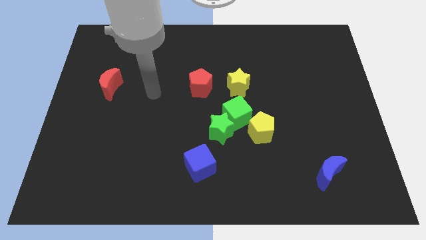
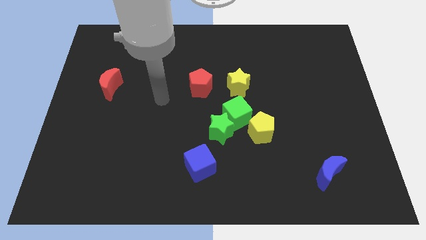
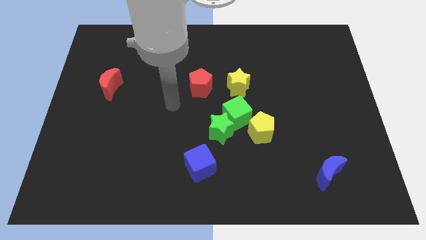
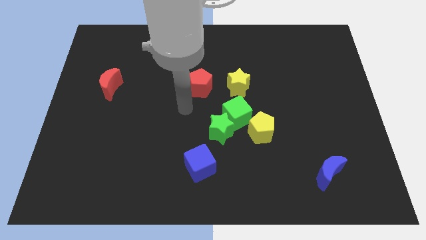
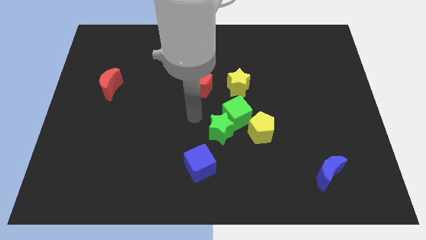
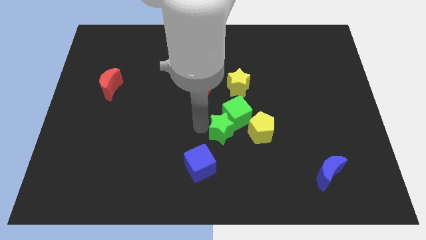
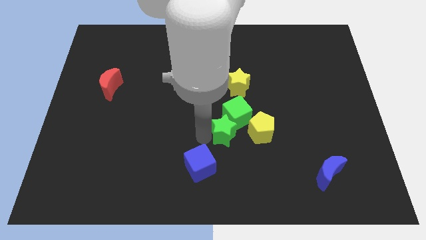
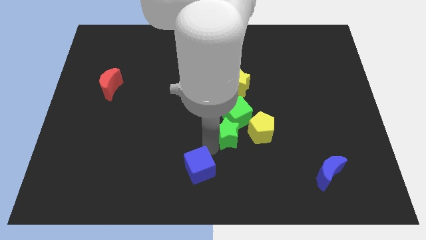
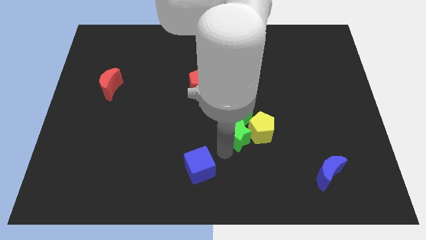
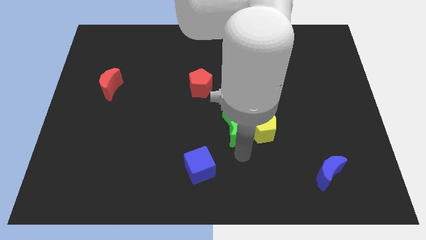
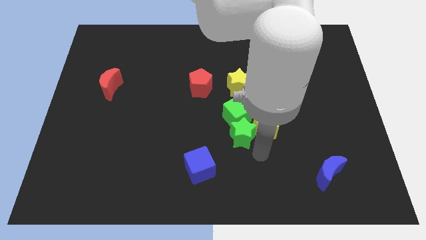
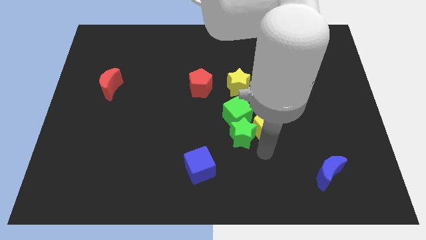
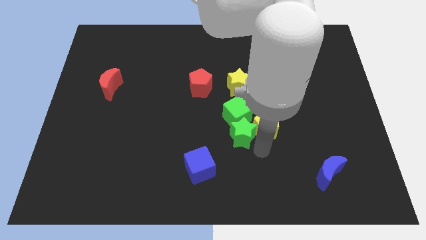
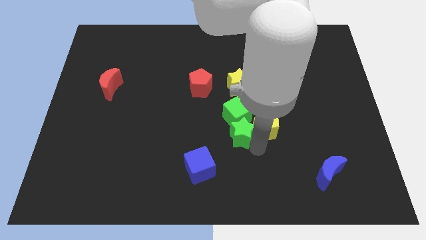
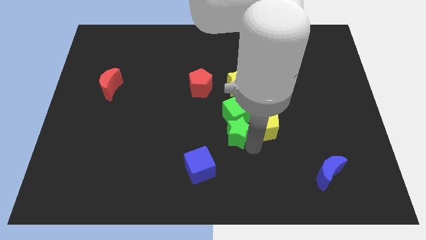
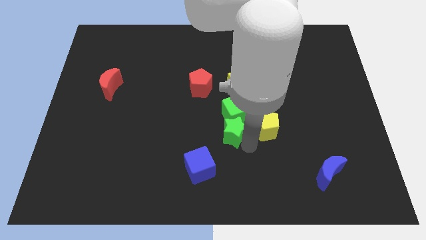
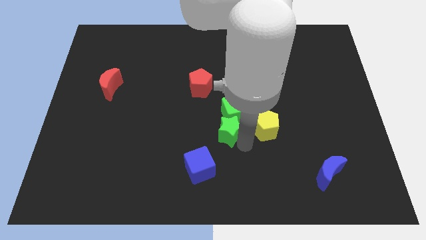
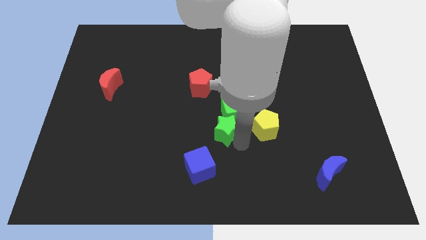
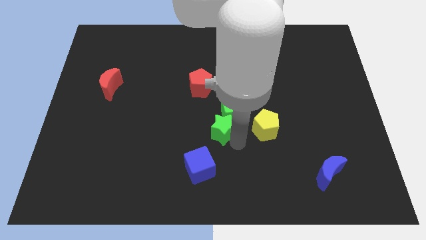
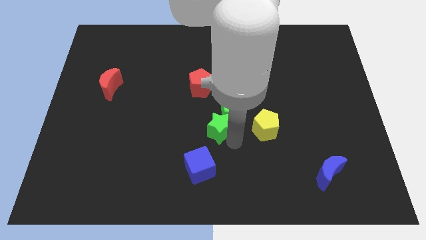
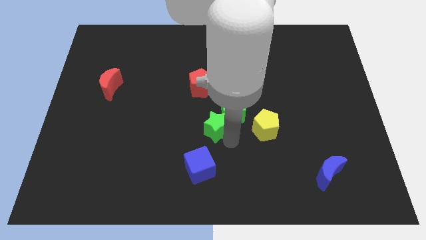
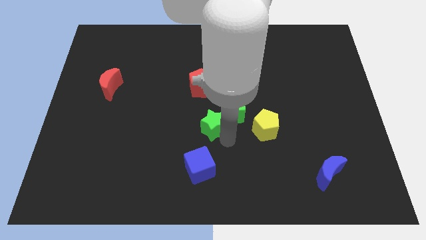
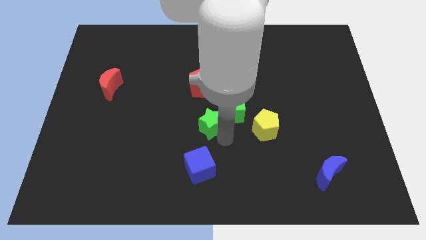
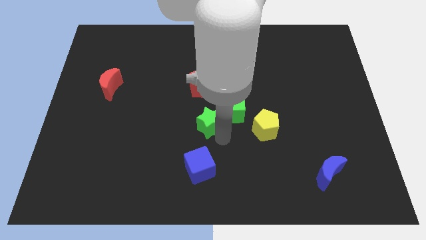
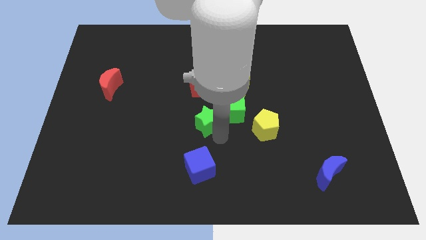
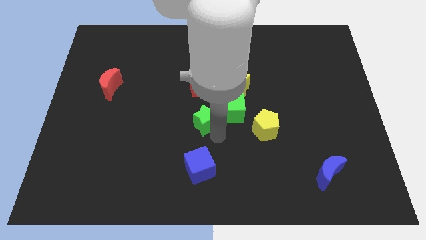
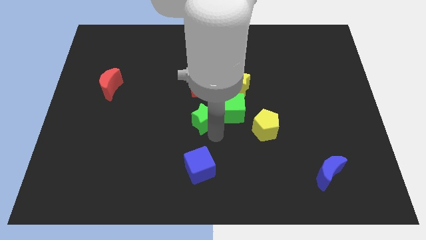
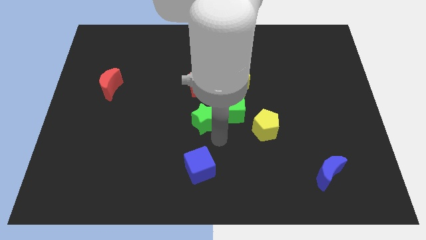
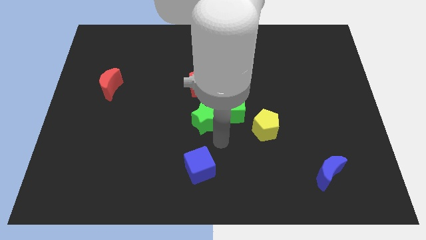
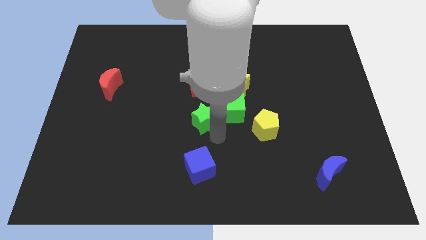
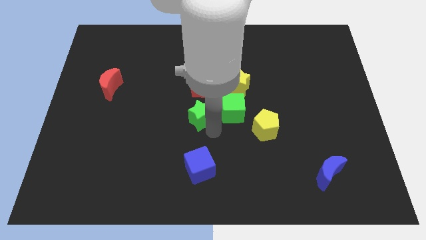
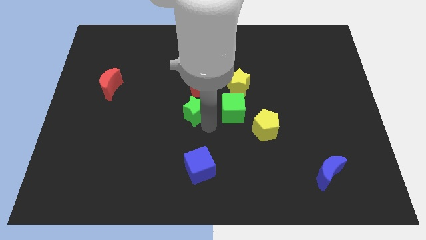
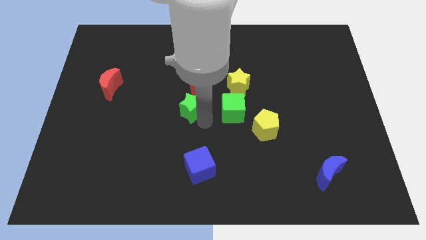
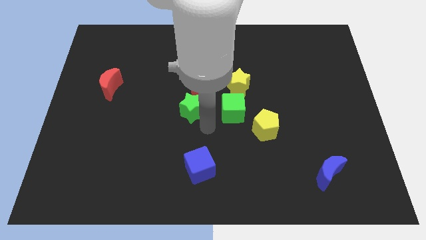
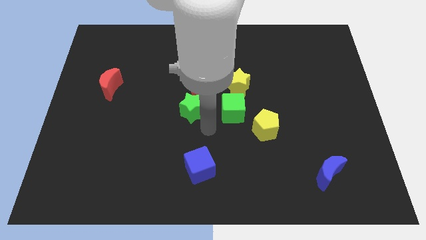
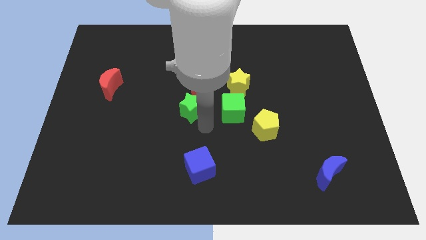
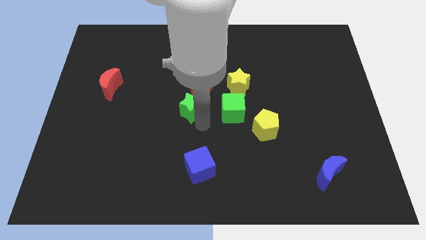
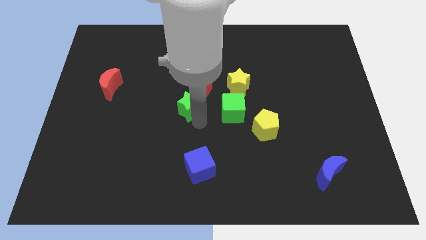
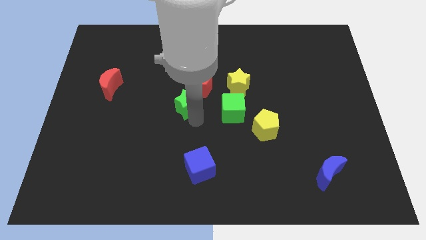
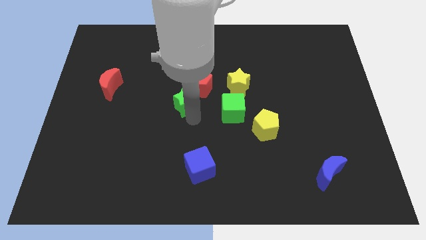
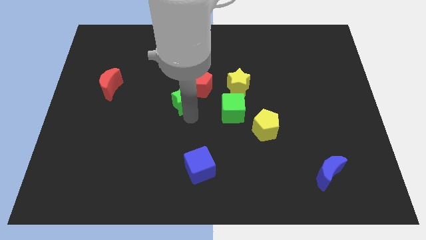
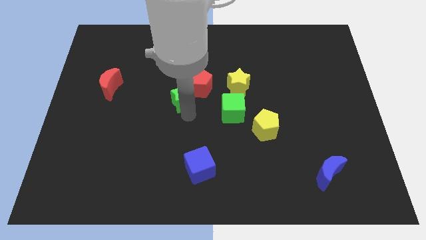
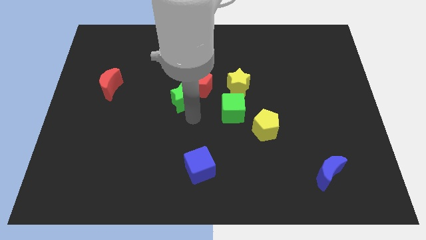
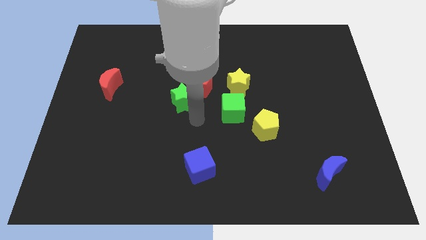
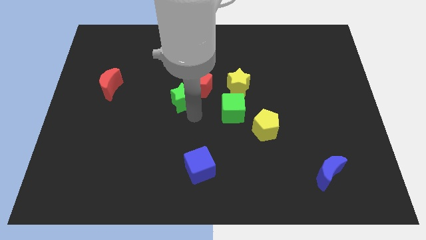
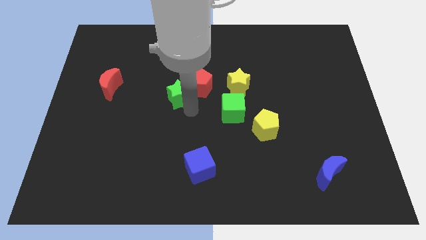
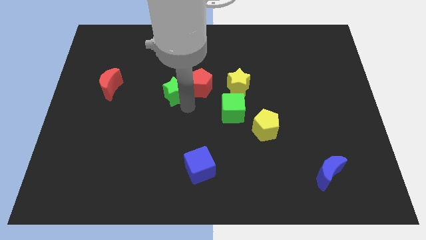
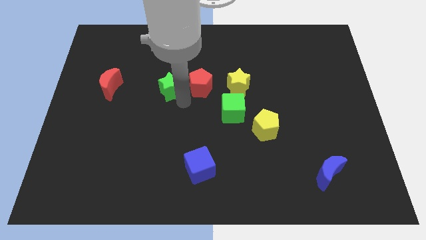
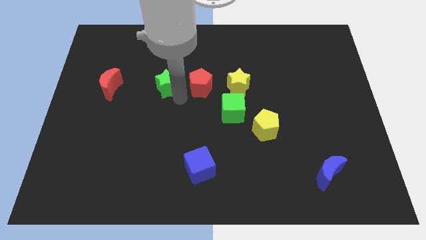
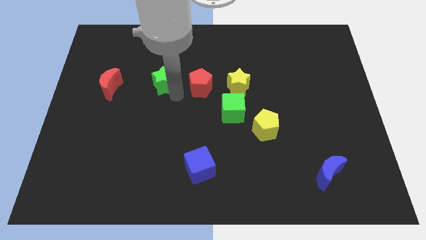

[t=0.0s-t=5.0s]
move the green star up and then to the left

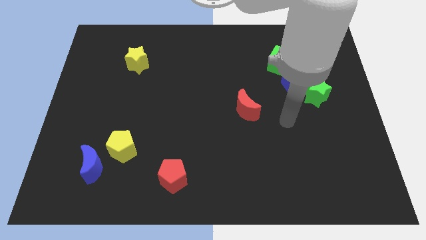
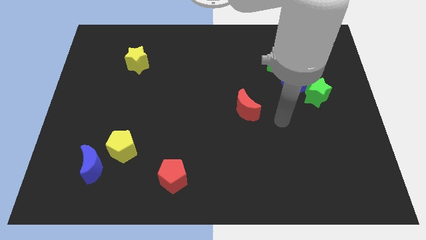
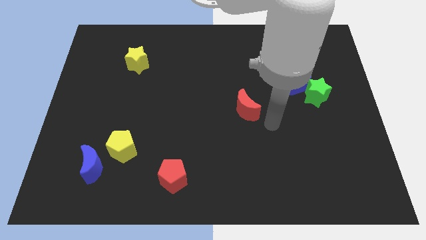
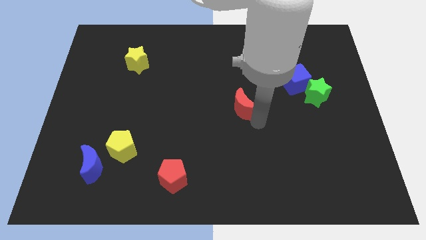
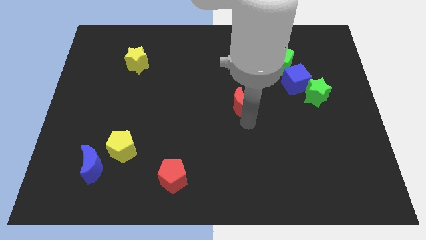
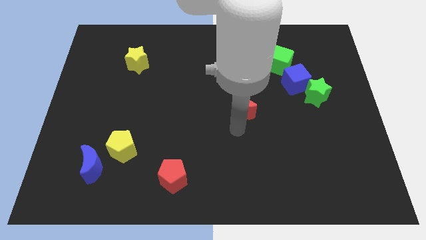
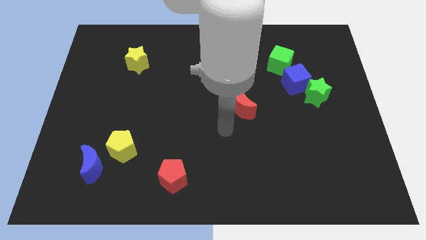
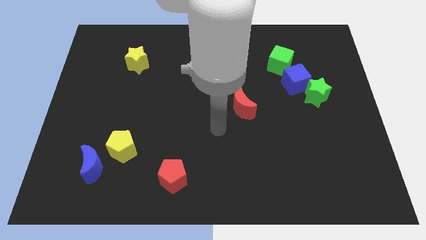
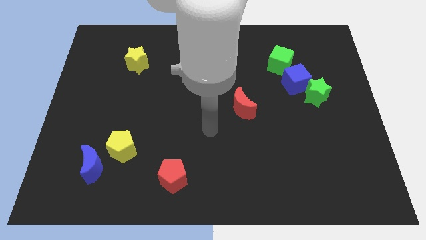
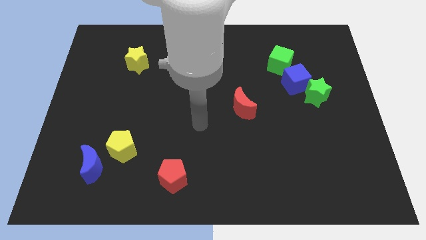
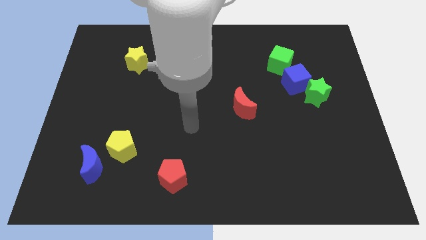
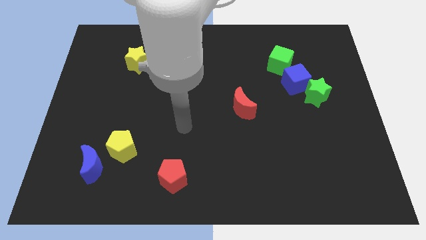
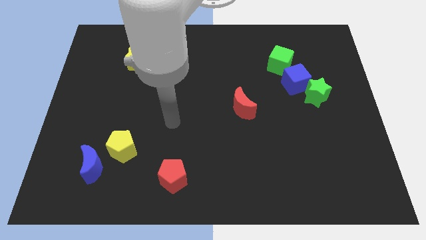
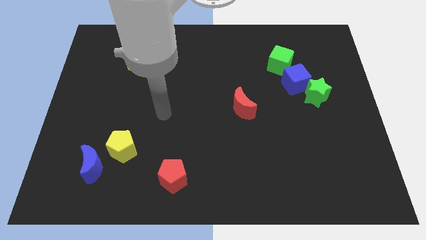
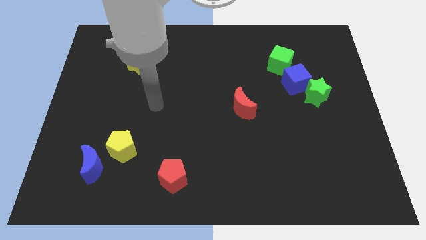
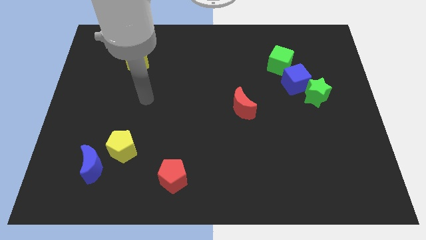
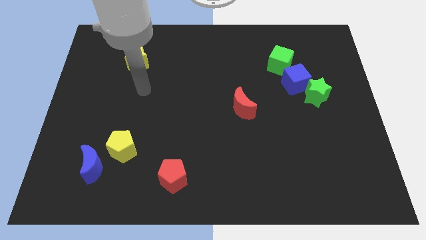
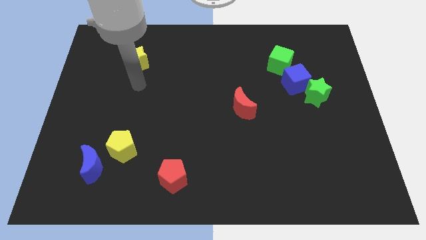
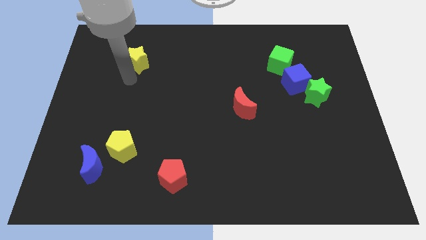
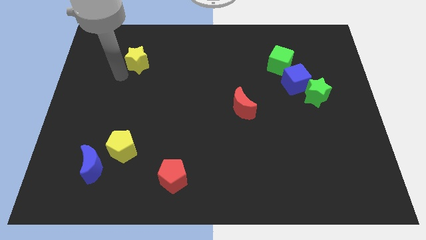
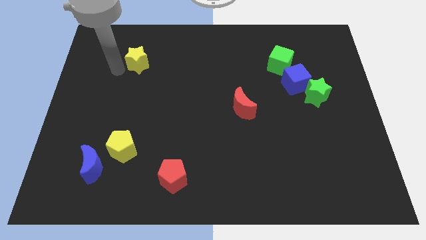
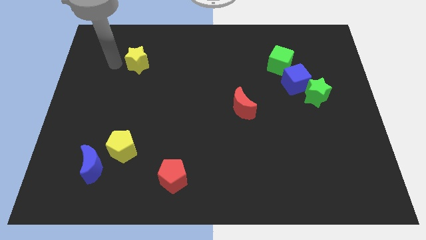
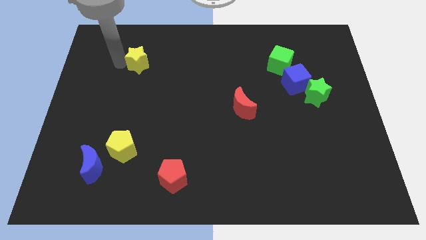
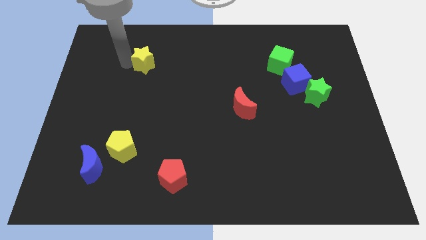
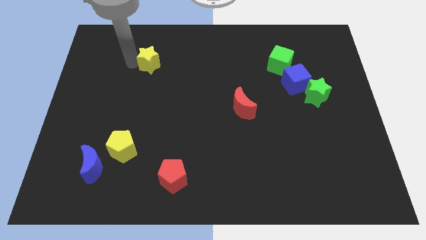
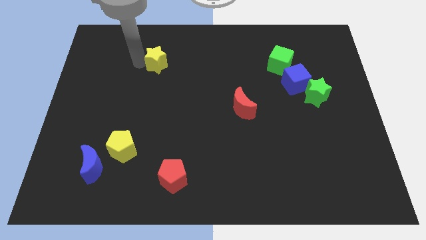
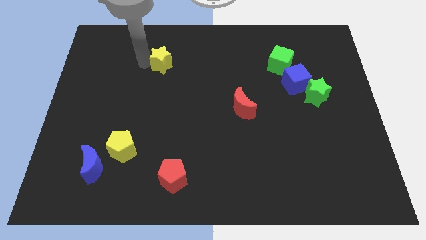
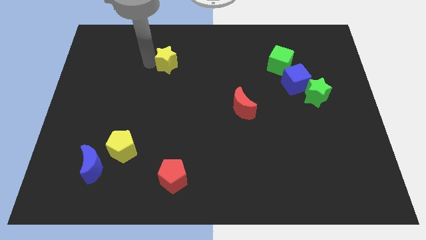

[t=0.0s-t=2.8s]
slightly slide the yellow star right

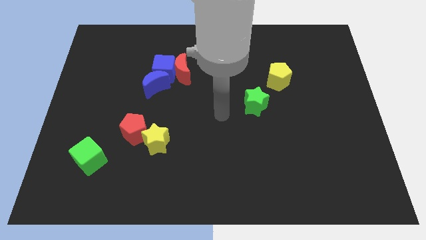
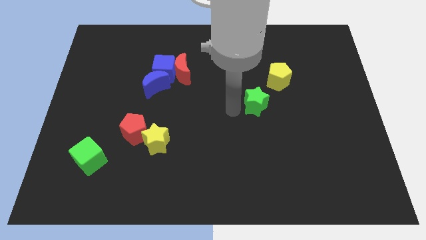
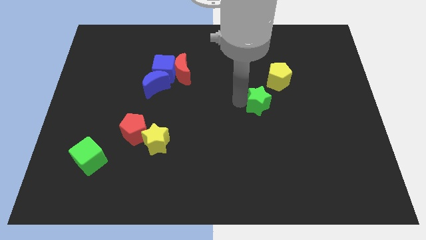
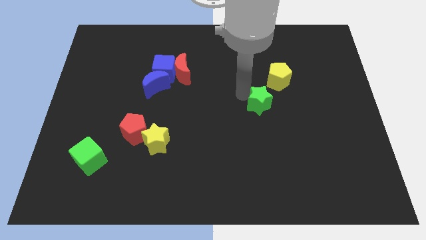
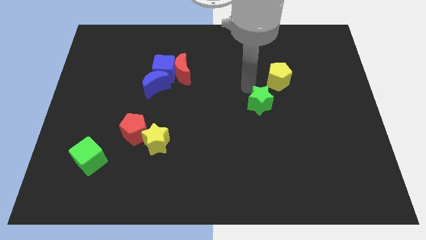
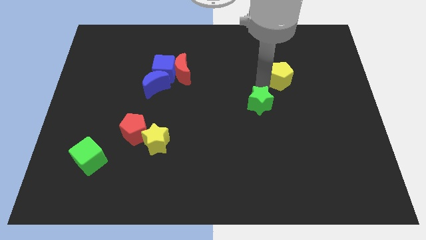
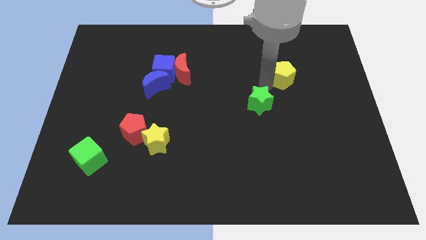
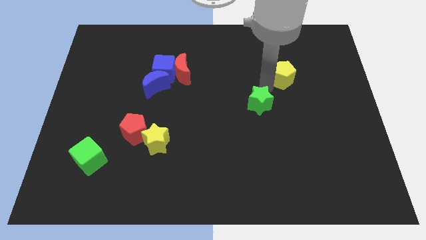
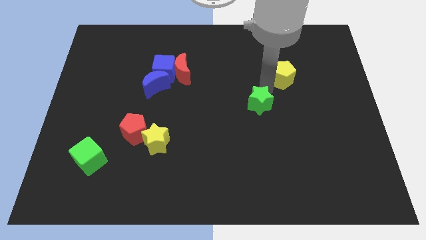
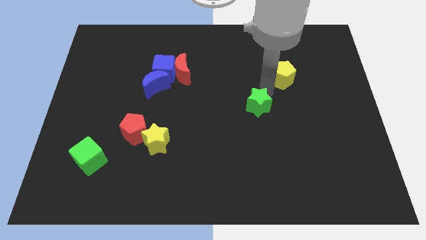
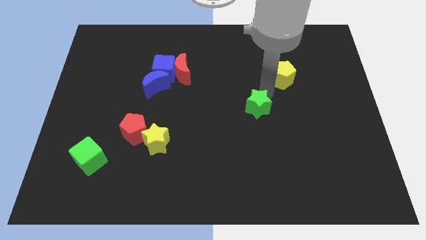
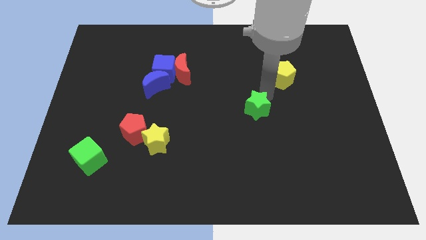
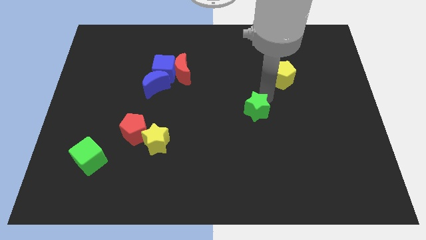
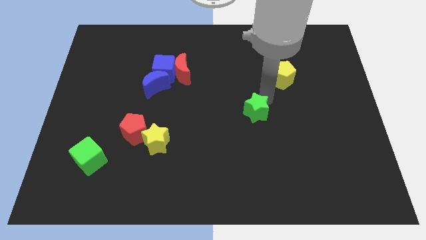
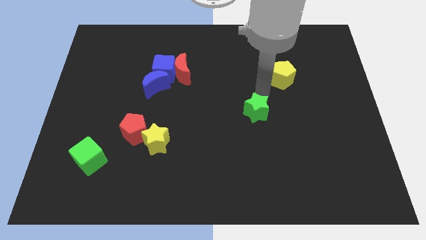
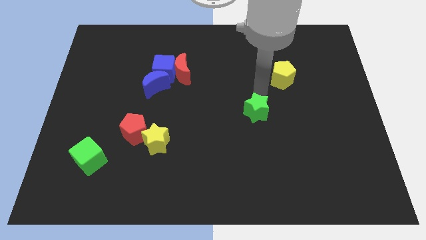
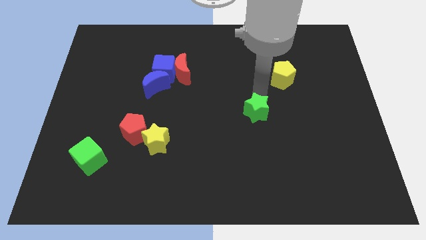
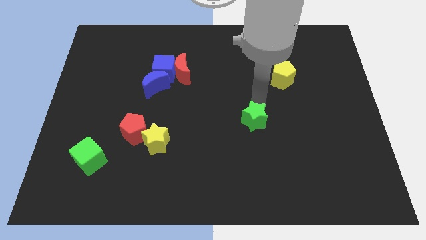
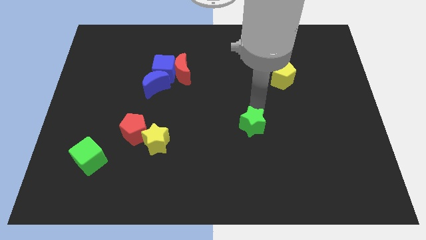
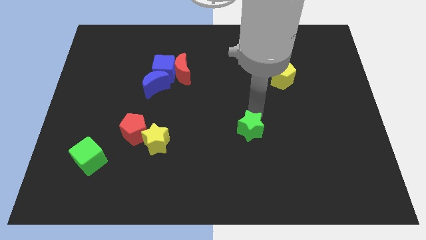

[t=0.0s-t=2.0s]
push the green star down a little
